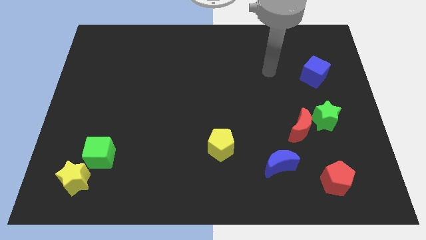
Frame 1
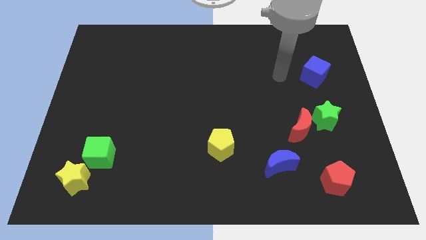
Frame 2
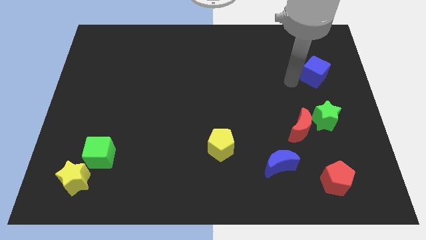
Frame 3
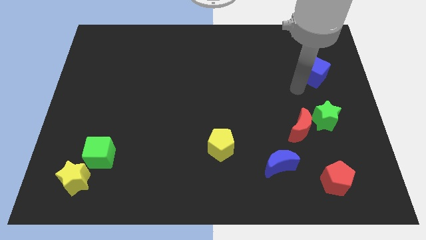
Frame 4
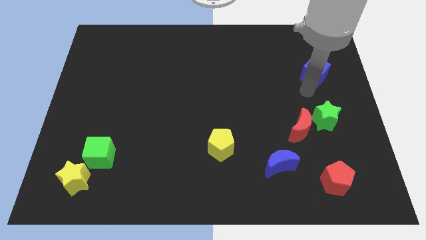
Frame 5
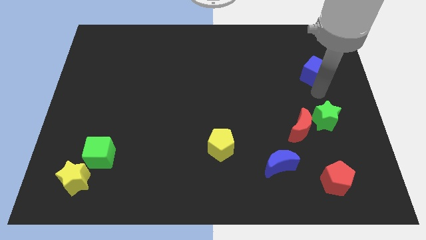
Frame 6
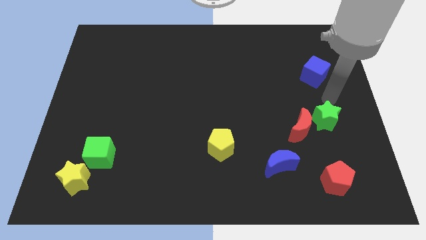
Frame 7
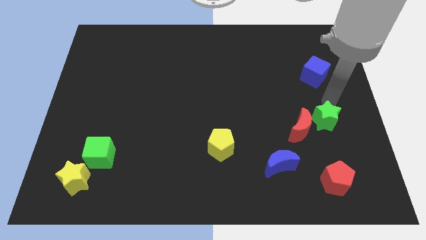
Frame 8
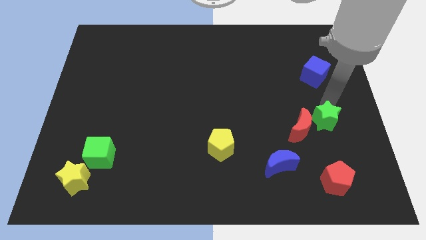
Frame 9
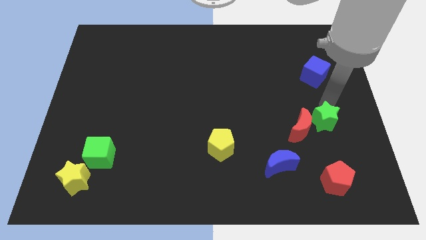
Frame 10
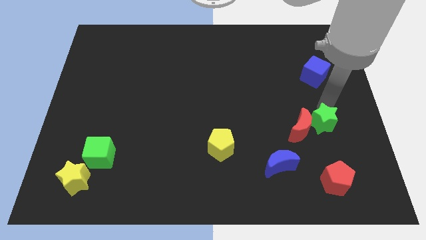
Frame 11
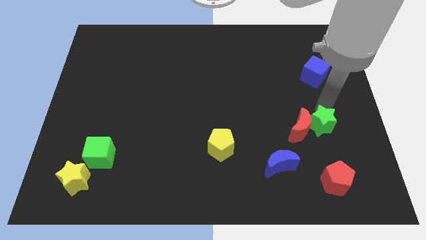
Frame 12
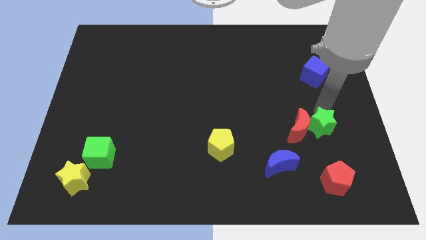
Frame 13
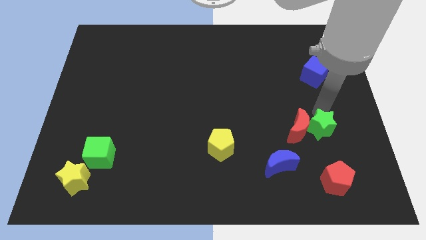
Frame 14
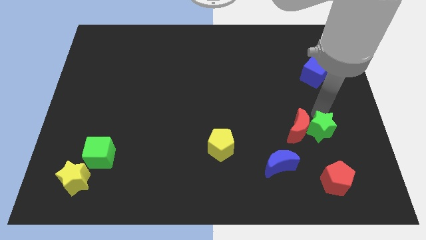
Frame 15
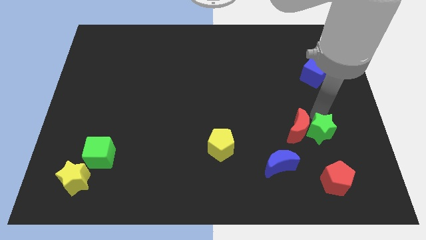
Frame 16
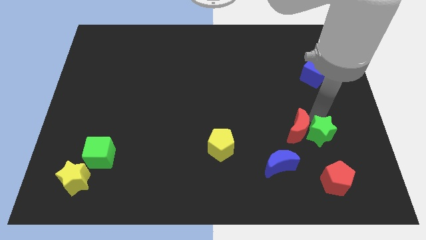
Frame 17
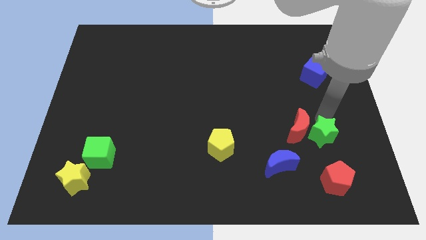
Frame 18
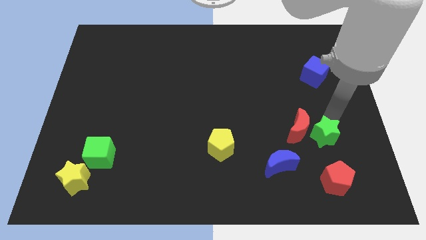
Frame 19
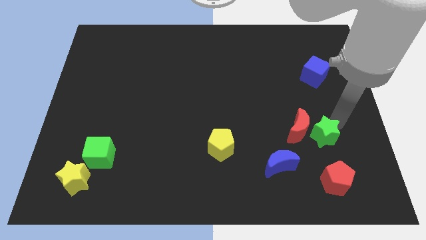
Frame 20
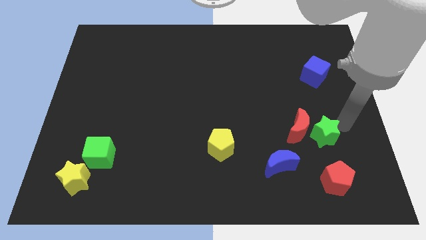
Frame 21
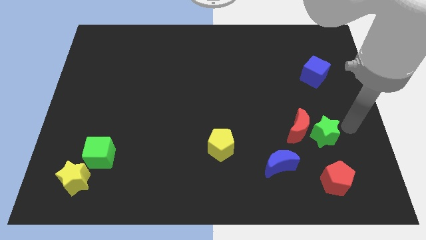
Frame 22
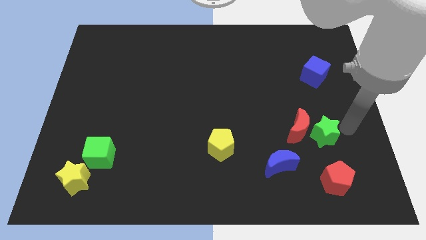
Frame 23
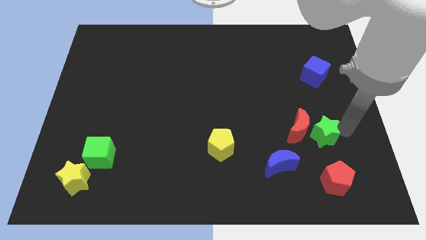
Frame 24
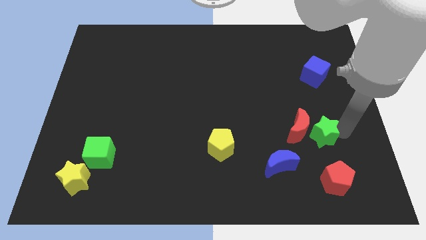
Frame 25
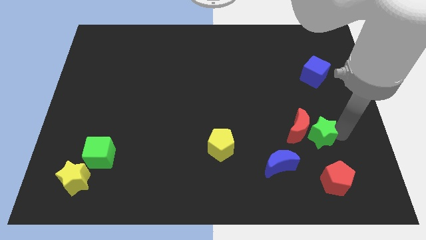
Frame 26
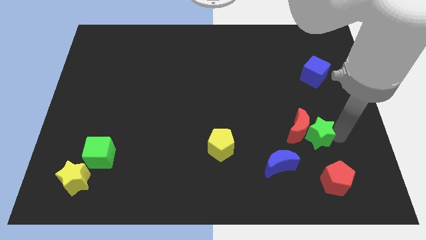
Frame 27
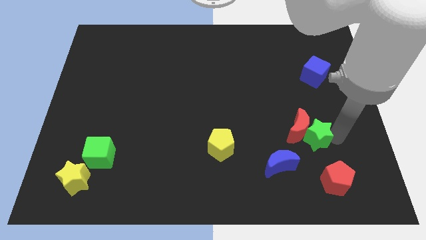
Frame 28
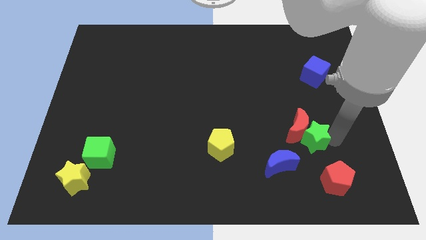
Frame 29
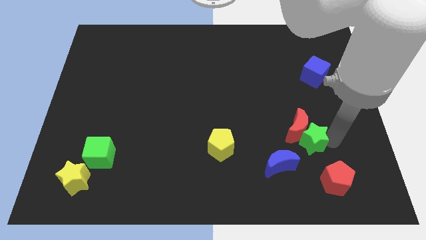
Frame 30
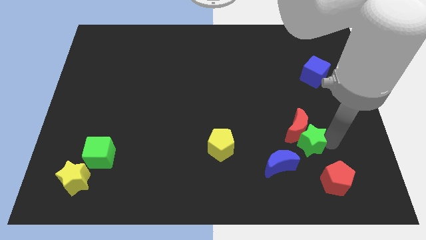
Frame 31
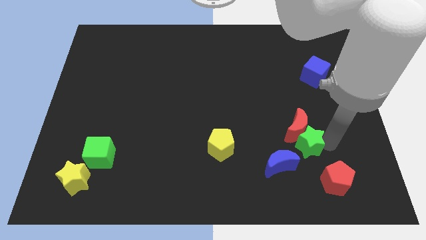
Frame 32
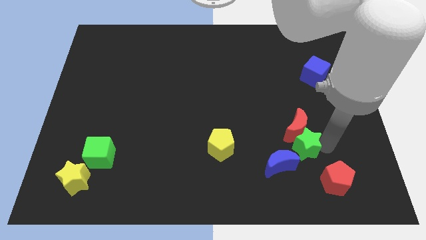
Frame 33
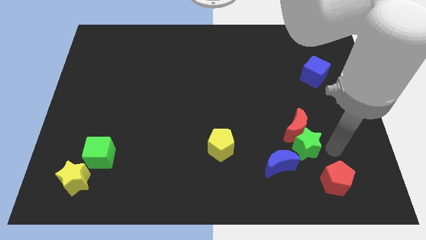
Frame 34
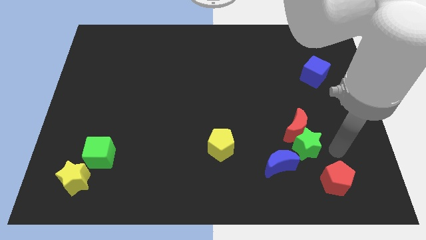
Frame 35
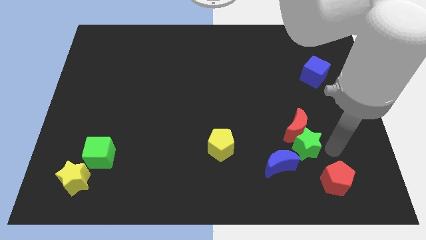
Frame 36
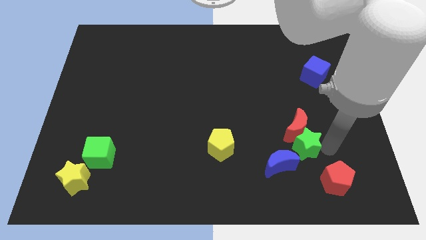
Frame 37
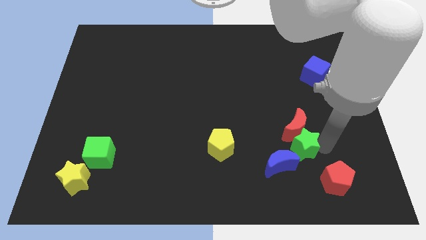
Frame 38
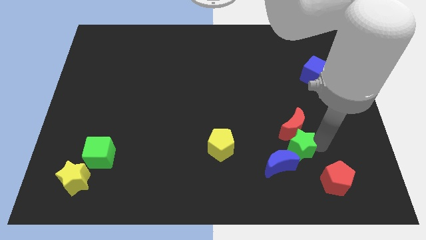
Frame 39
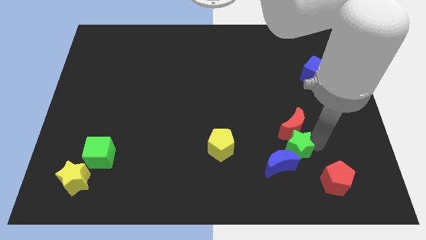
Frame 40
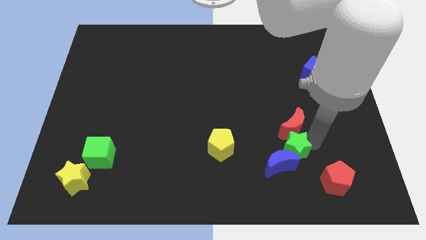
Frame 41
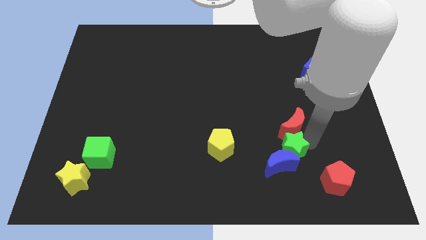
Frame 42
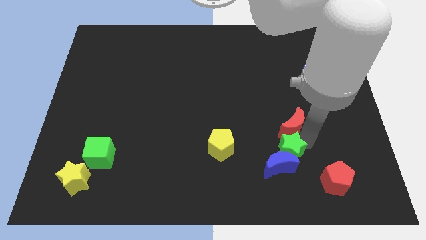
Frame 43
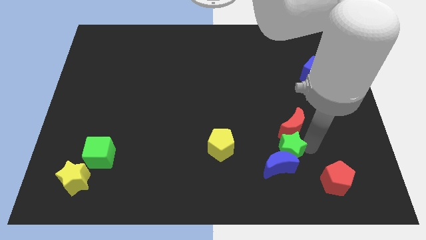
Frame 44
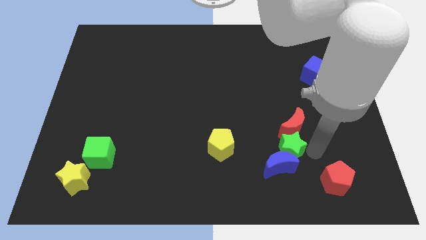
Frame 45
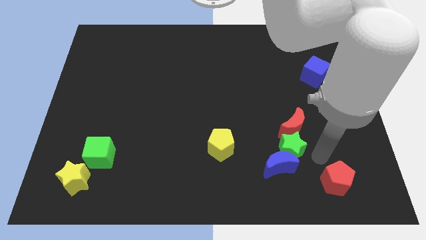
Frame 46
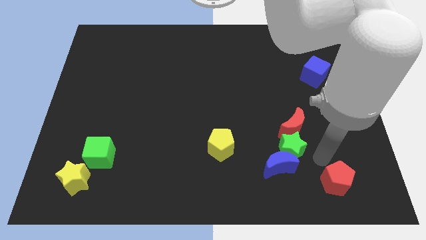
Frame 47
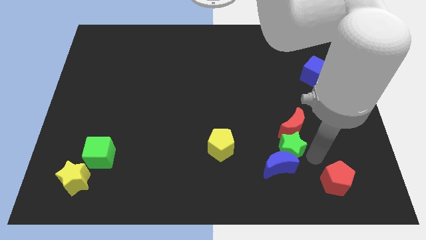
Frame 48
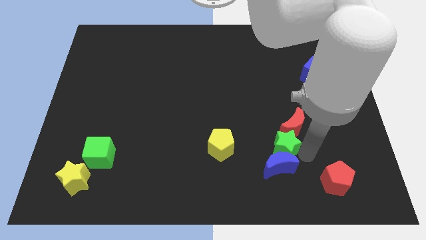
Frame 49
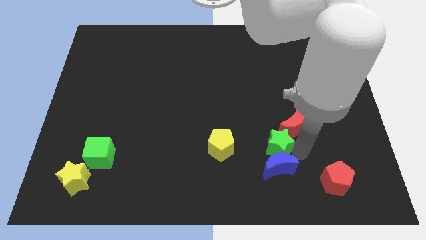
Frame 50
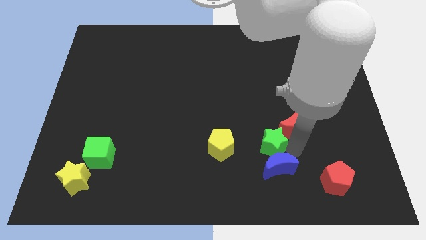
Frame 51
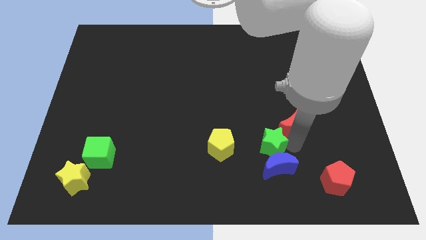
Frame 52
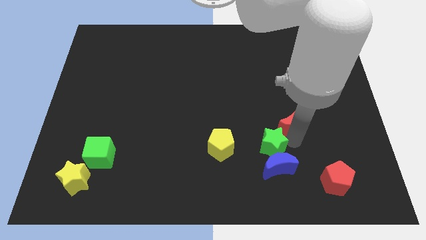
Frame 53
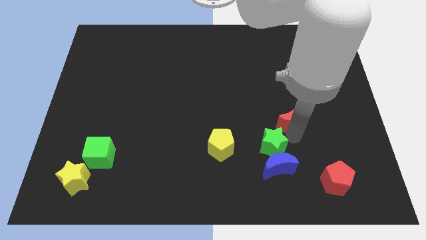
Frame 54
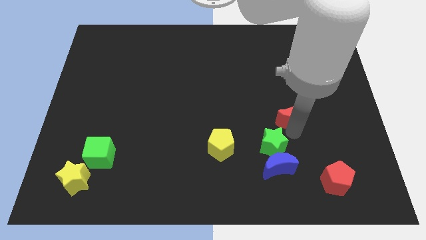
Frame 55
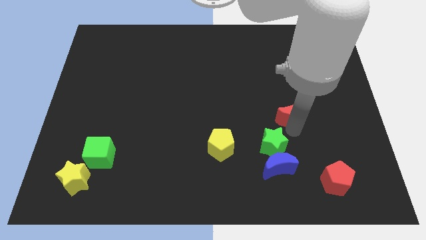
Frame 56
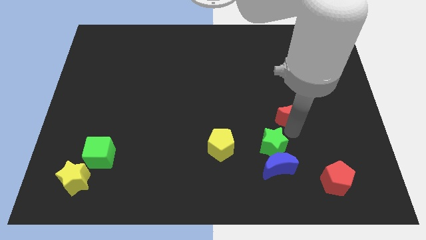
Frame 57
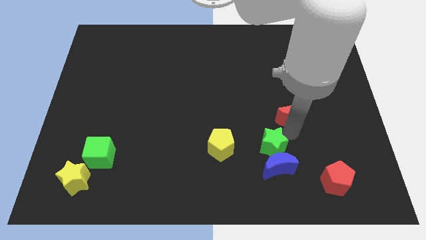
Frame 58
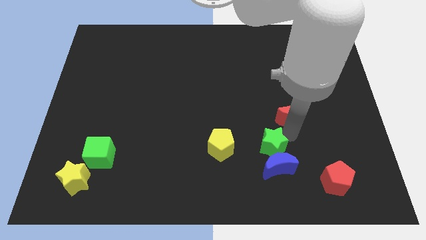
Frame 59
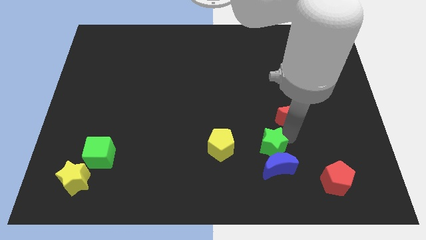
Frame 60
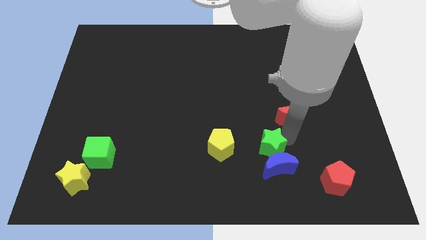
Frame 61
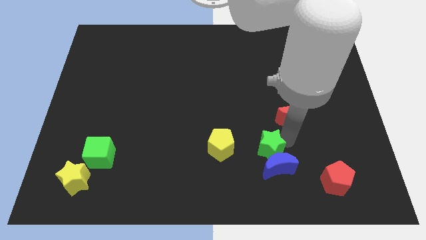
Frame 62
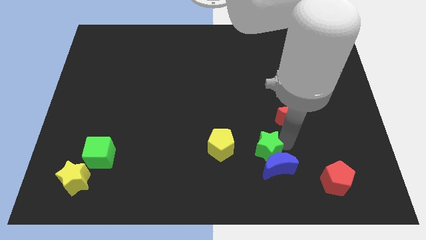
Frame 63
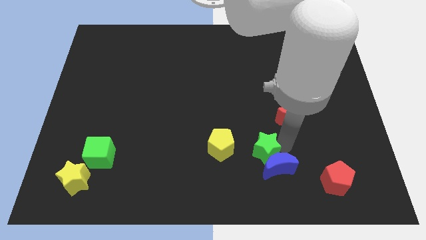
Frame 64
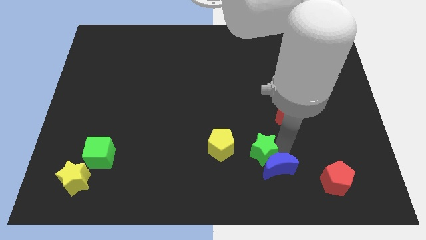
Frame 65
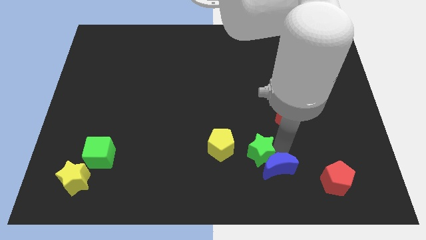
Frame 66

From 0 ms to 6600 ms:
move the green star diagonally down and to the right of the yellow pentagon
